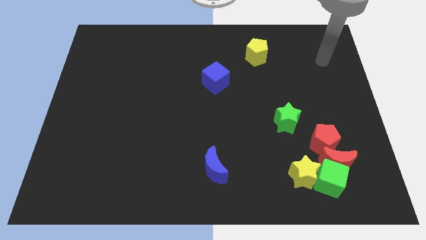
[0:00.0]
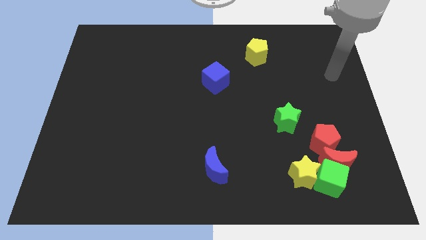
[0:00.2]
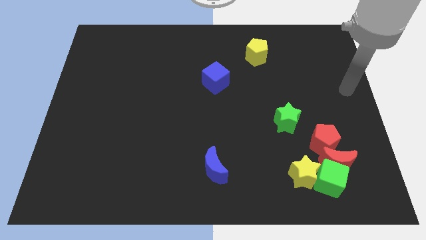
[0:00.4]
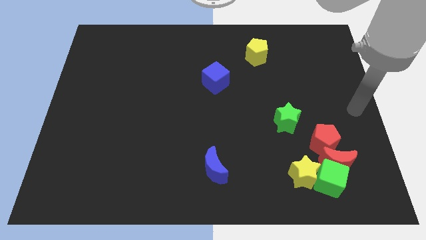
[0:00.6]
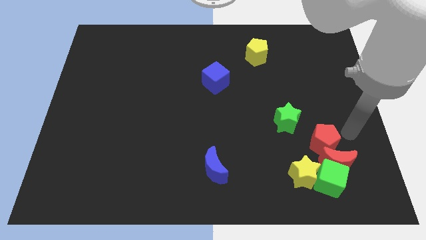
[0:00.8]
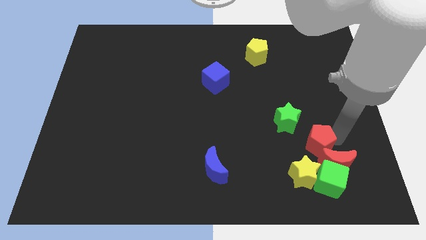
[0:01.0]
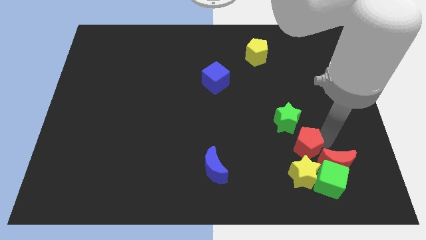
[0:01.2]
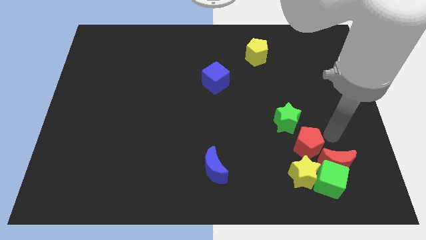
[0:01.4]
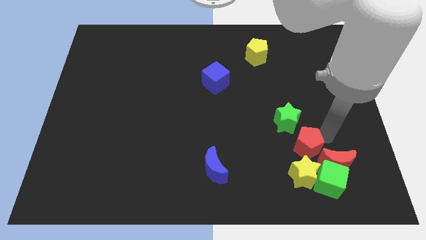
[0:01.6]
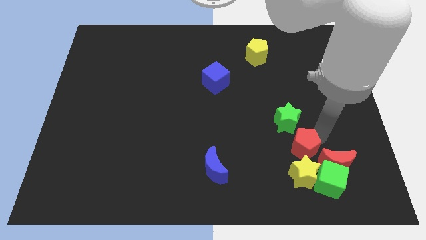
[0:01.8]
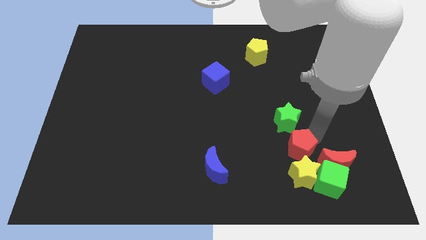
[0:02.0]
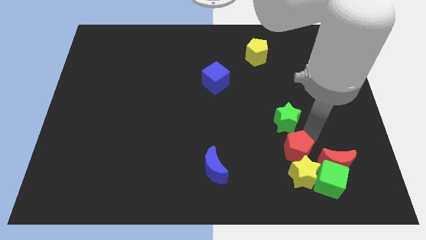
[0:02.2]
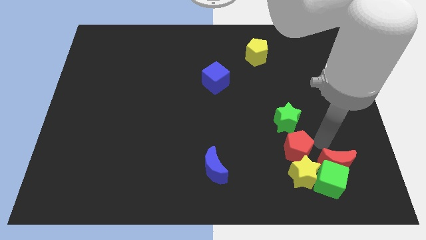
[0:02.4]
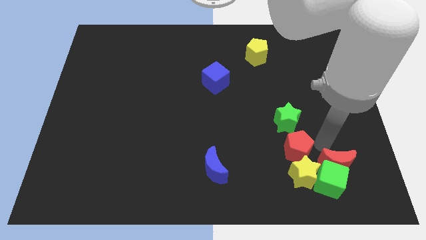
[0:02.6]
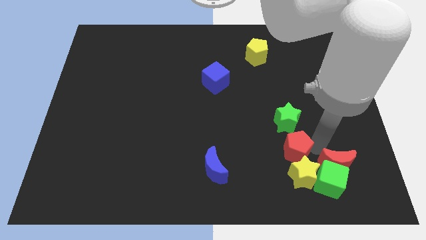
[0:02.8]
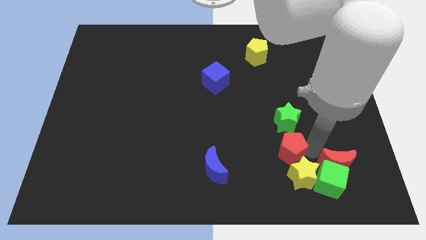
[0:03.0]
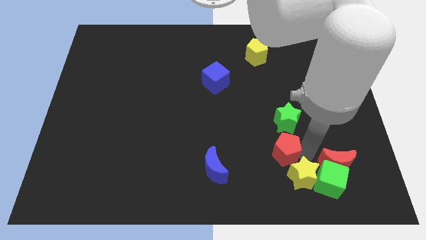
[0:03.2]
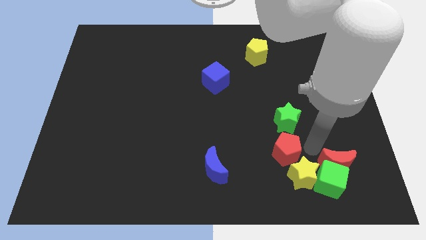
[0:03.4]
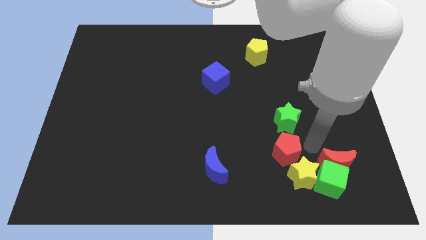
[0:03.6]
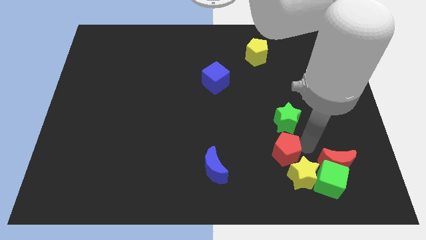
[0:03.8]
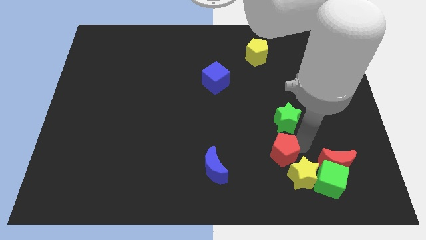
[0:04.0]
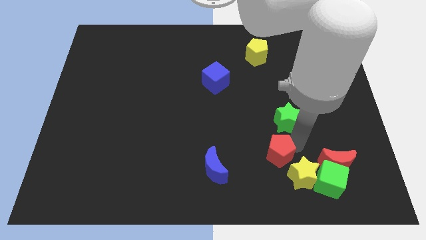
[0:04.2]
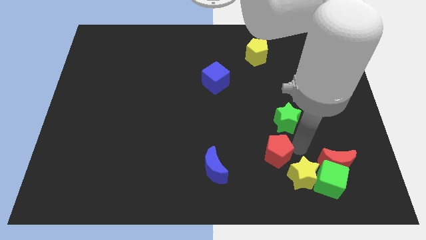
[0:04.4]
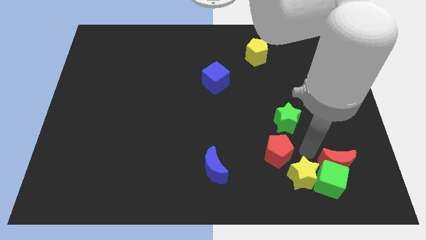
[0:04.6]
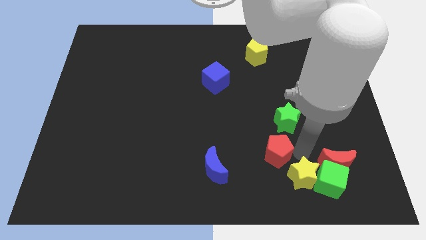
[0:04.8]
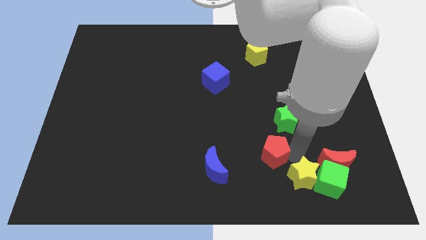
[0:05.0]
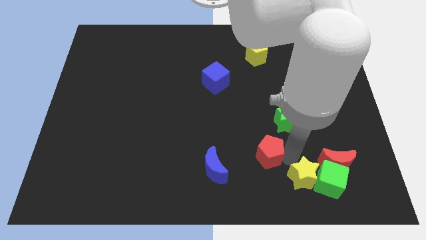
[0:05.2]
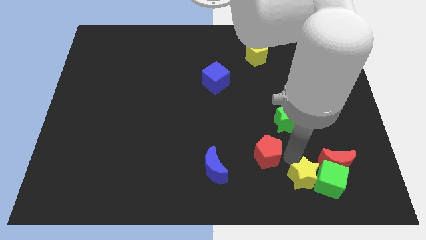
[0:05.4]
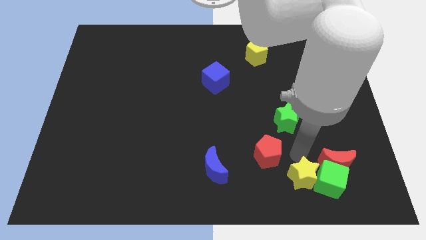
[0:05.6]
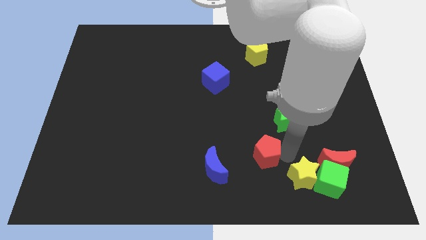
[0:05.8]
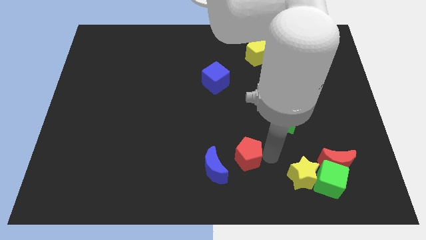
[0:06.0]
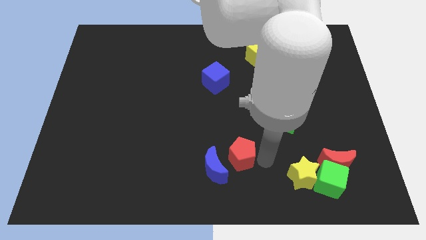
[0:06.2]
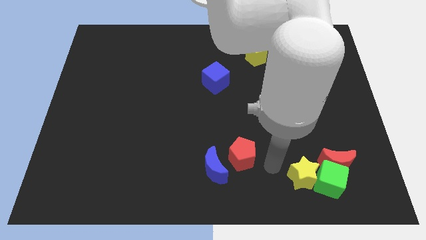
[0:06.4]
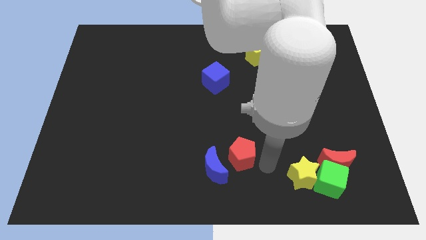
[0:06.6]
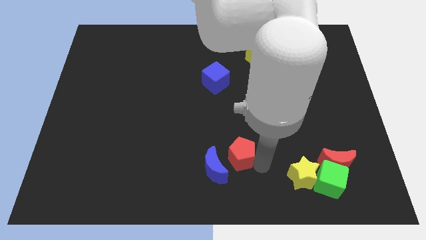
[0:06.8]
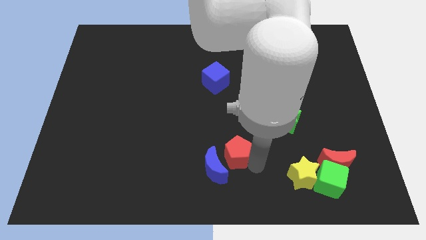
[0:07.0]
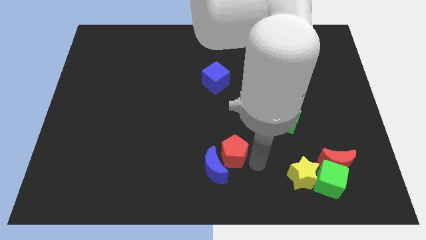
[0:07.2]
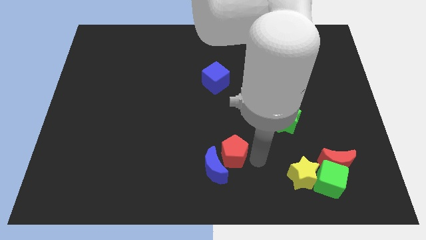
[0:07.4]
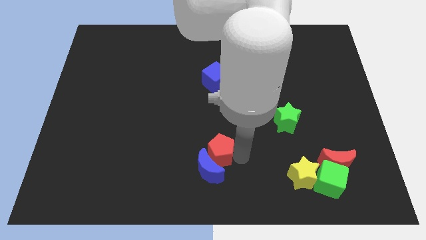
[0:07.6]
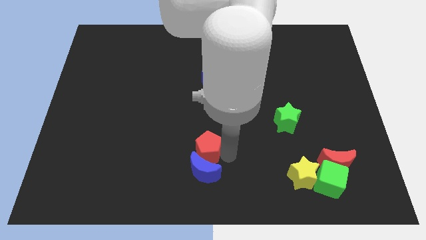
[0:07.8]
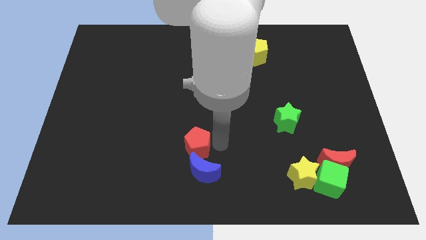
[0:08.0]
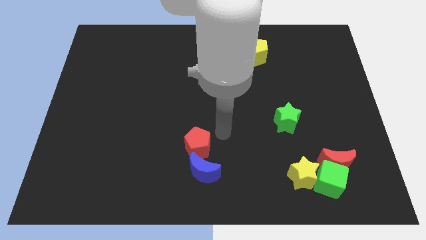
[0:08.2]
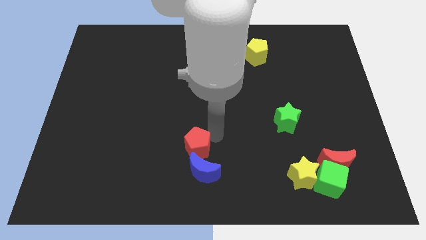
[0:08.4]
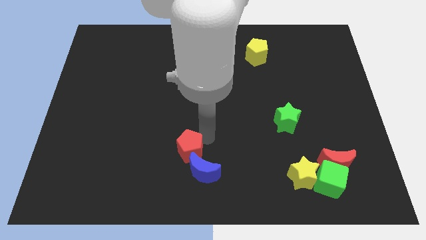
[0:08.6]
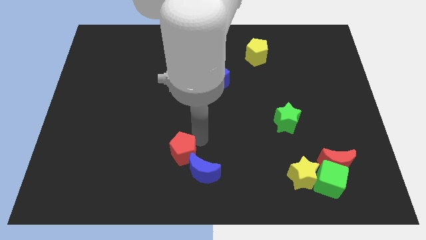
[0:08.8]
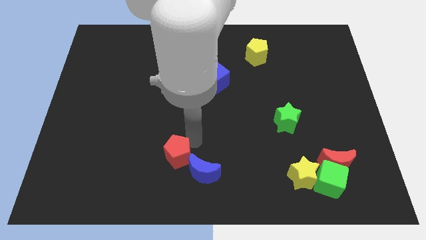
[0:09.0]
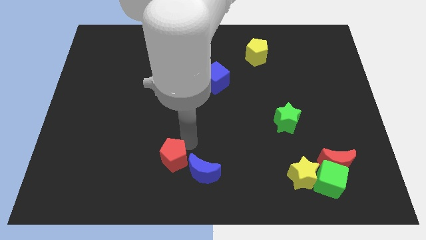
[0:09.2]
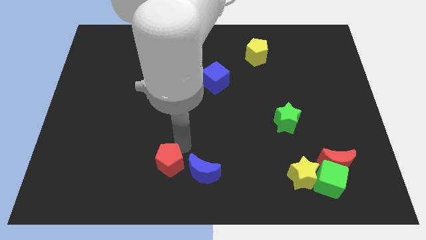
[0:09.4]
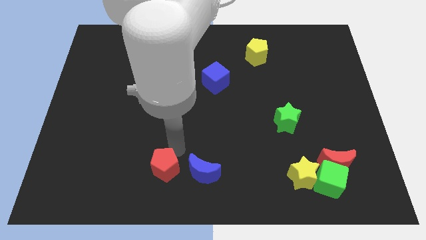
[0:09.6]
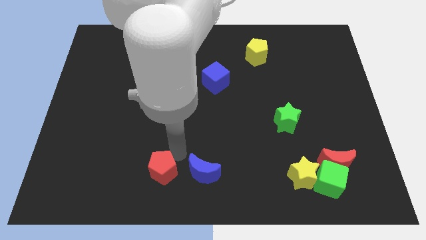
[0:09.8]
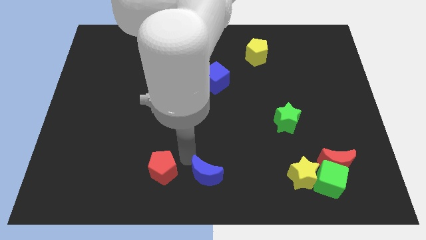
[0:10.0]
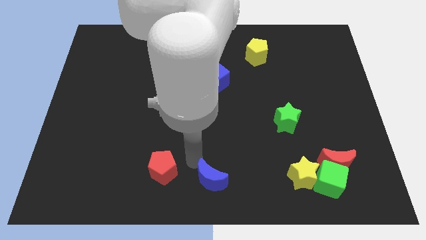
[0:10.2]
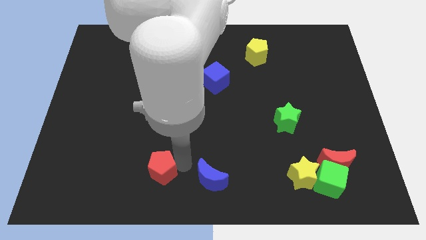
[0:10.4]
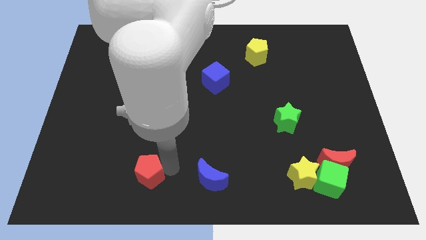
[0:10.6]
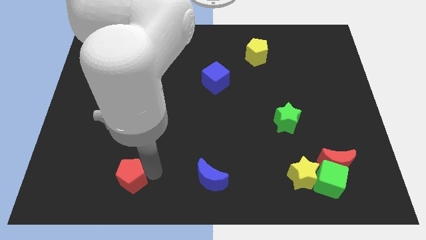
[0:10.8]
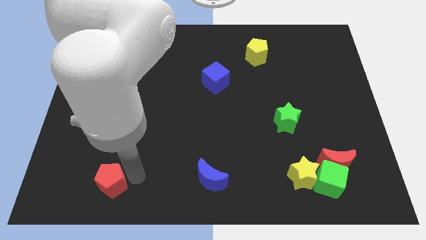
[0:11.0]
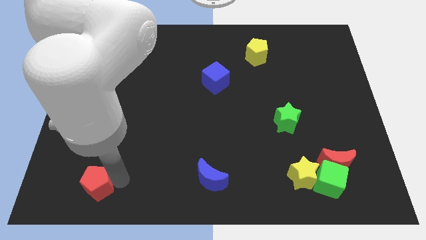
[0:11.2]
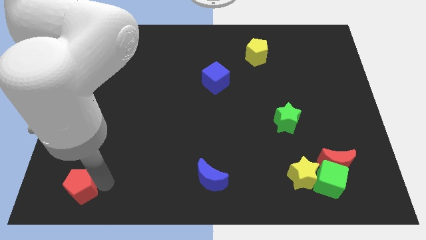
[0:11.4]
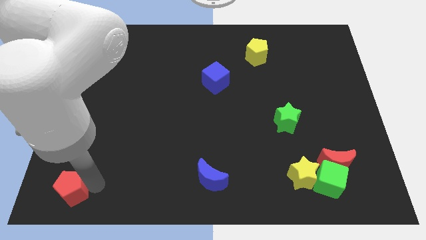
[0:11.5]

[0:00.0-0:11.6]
move the red pentagon to the bottom left corner
